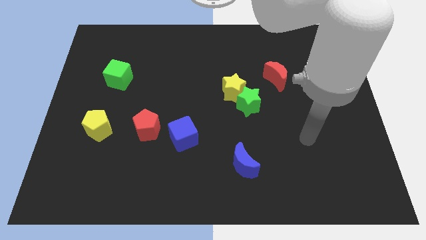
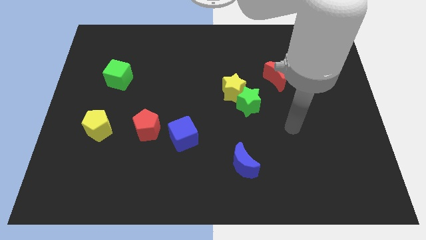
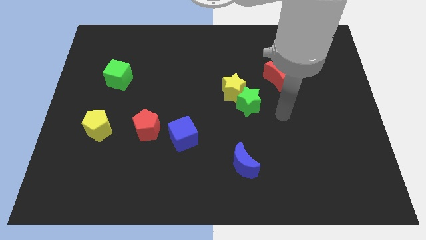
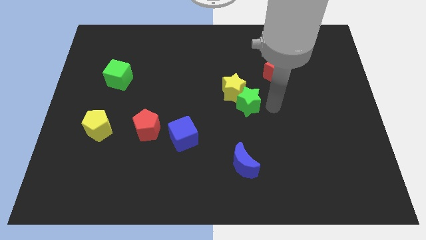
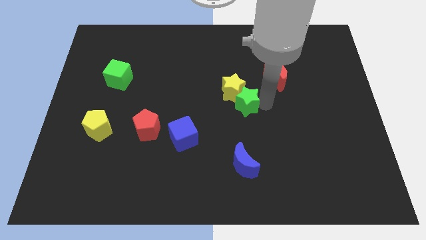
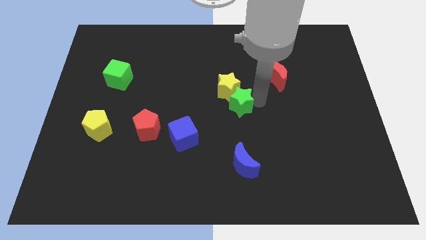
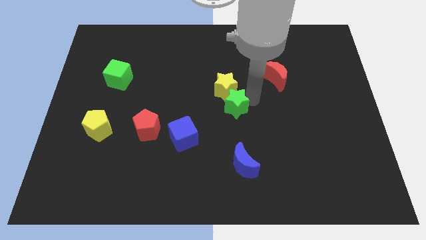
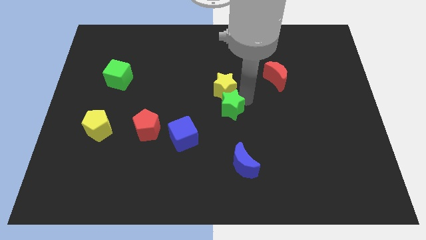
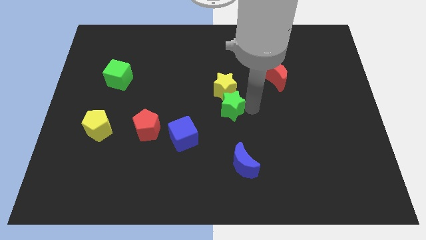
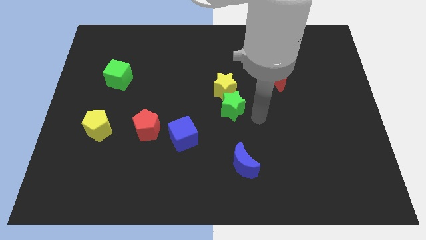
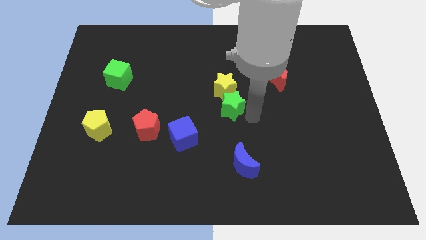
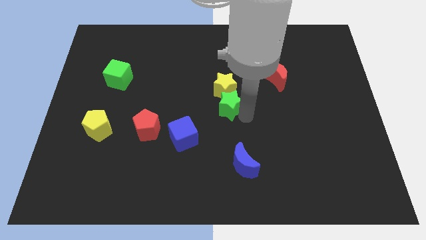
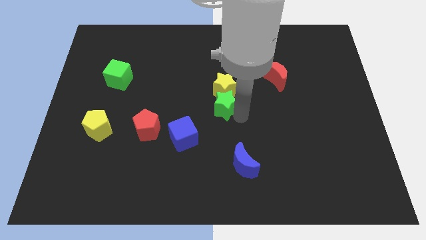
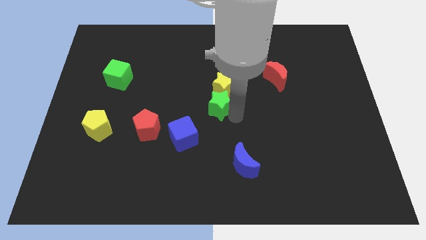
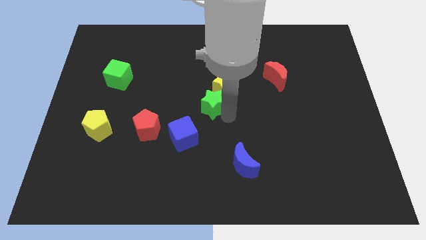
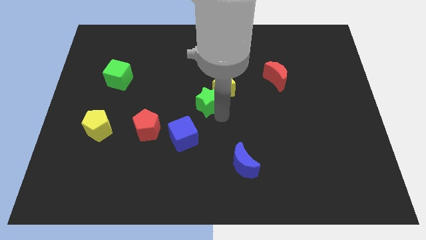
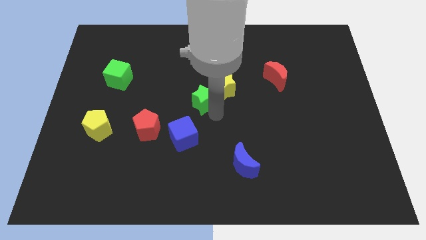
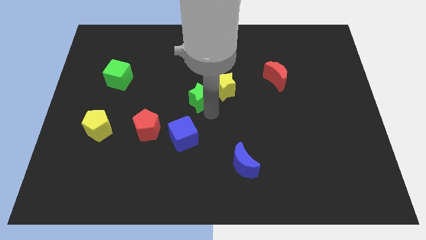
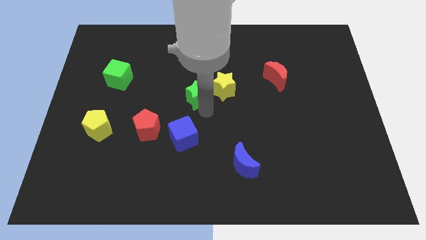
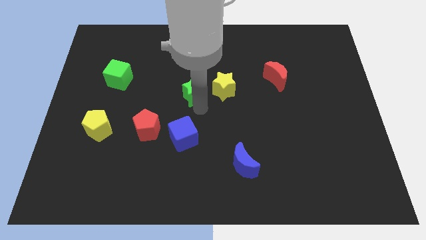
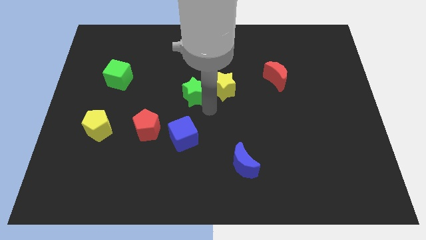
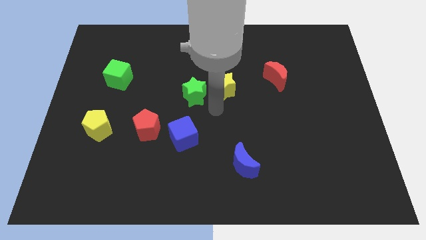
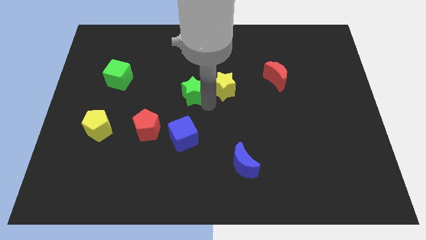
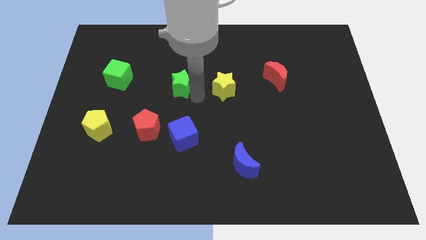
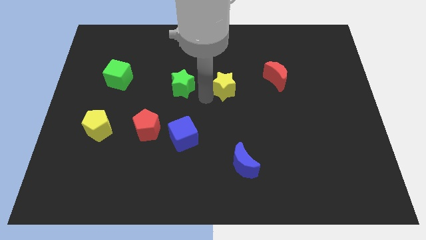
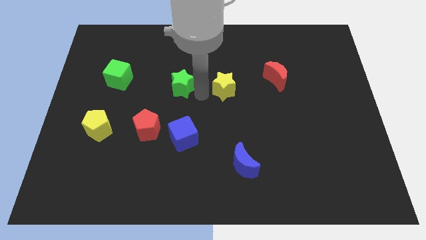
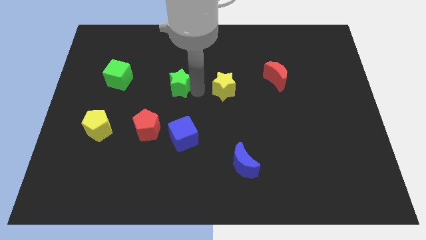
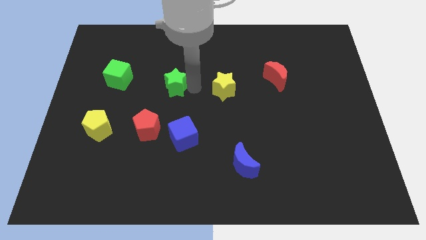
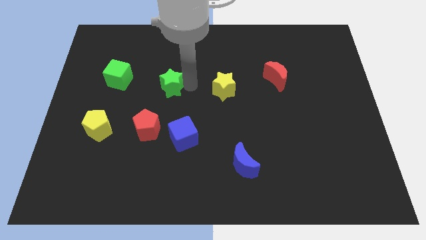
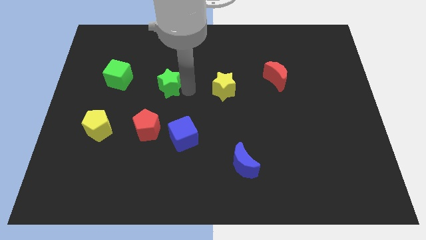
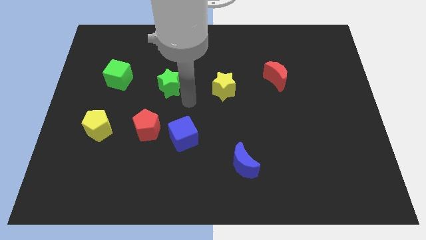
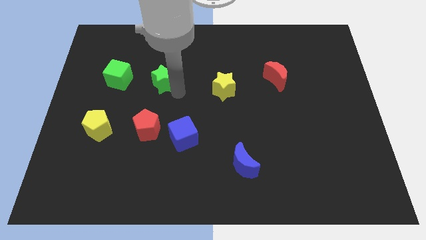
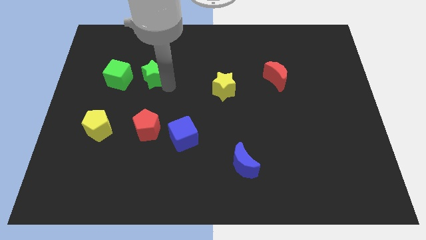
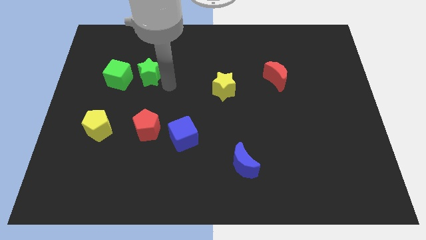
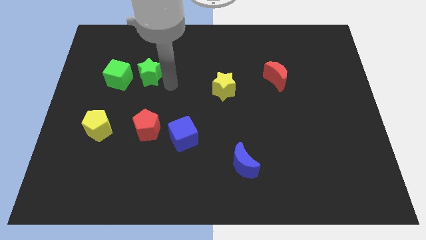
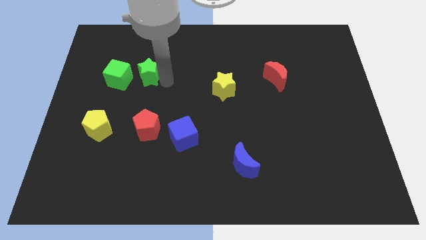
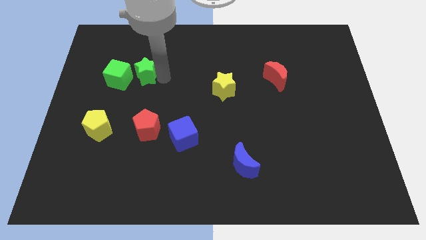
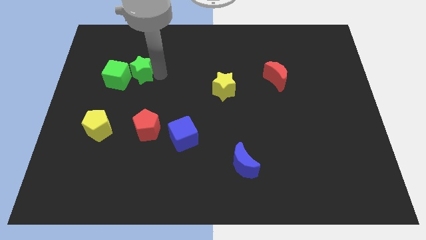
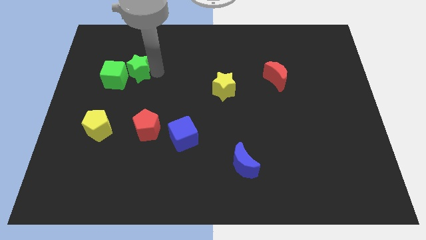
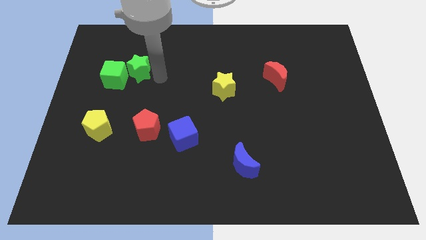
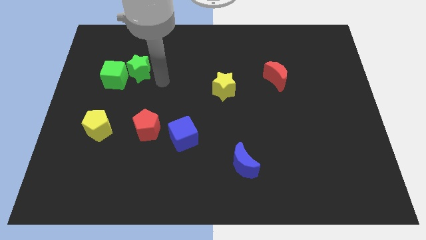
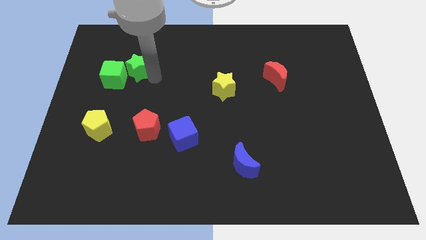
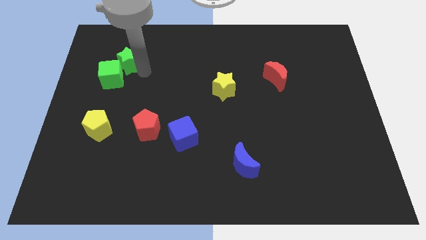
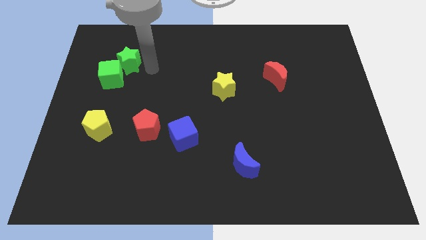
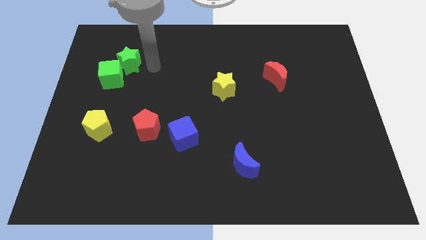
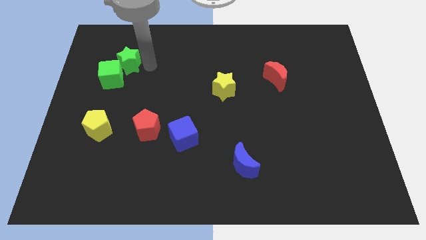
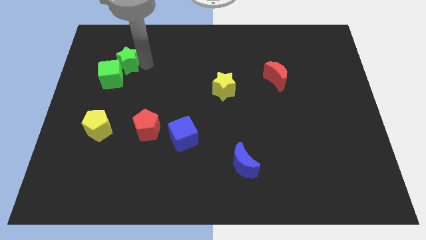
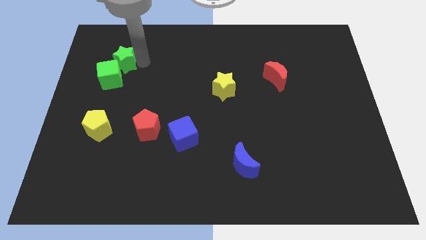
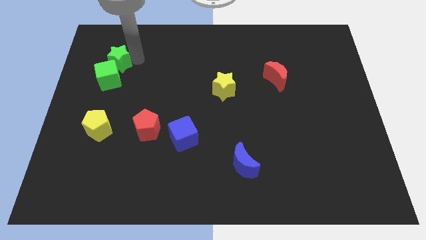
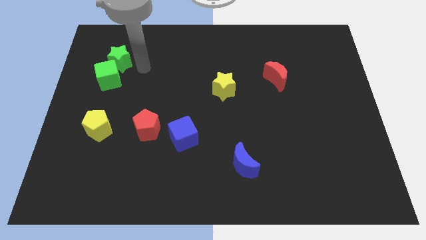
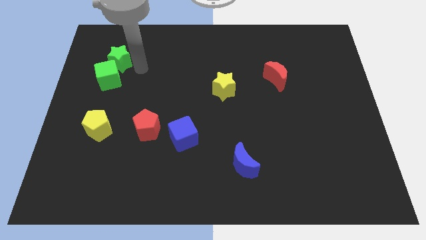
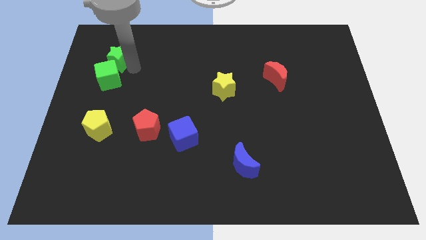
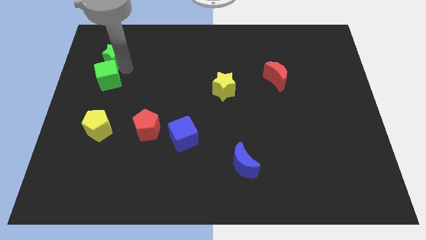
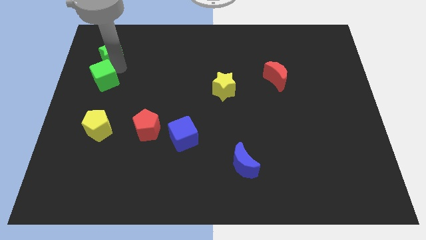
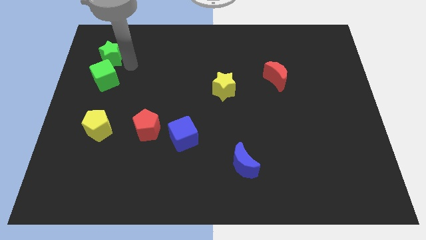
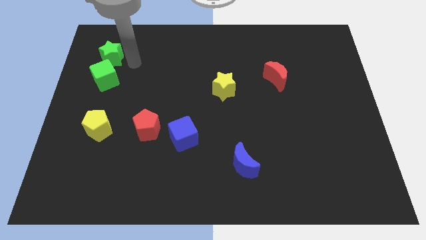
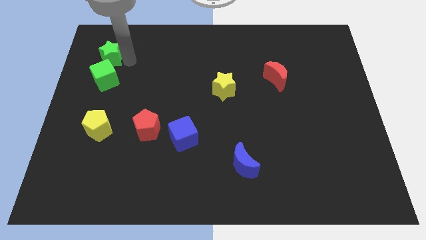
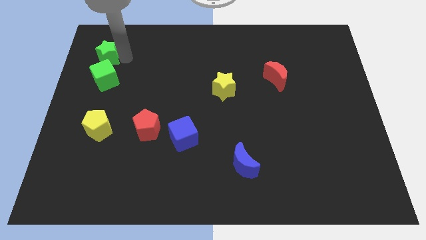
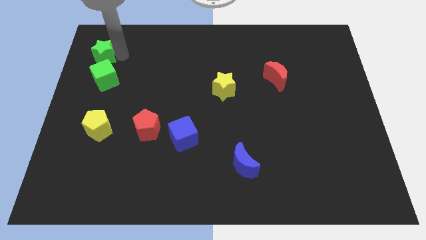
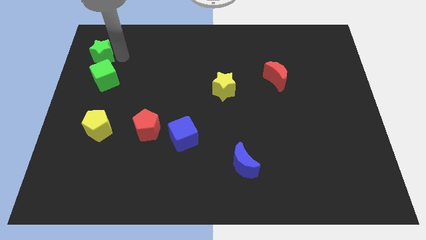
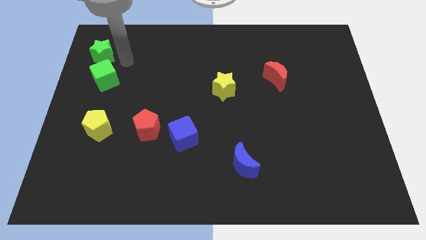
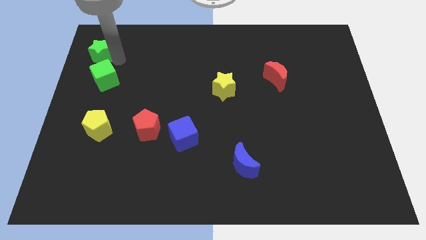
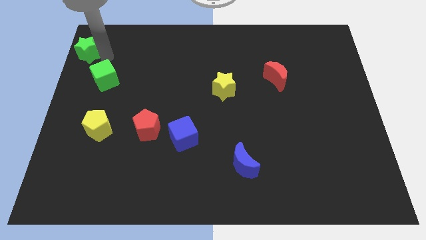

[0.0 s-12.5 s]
slide the green star to the top left

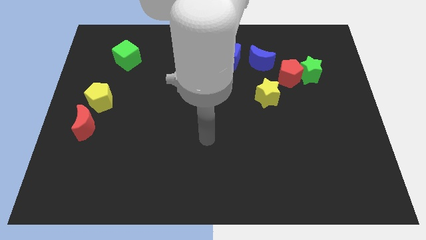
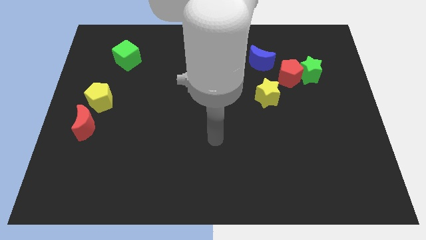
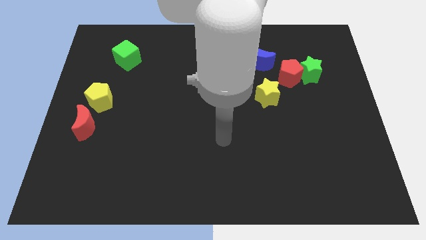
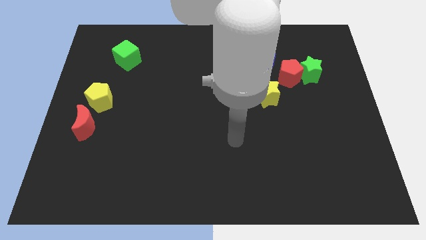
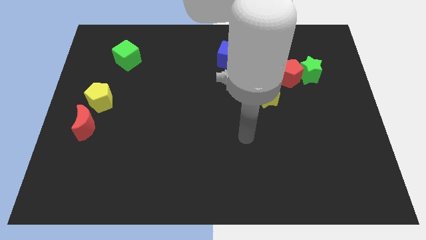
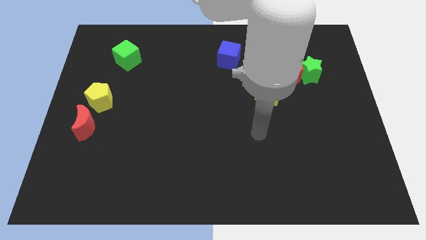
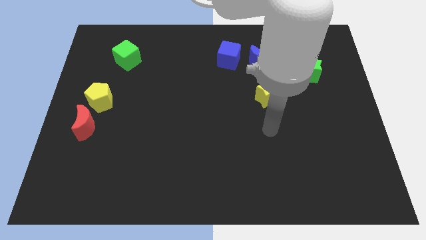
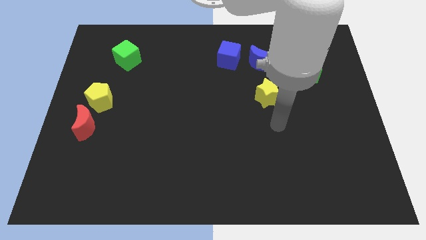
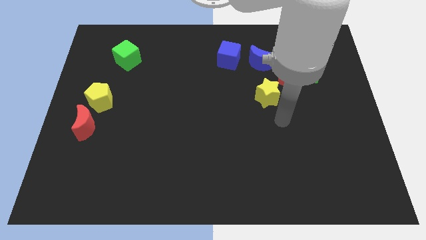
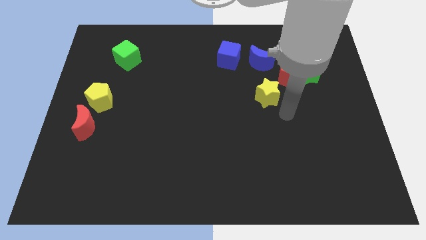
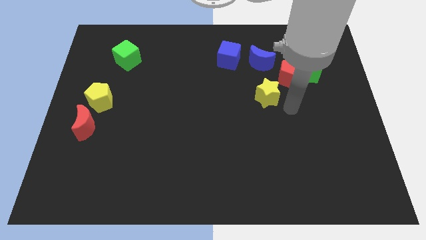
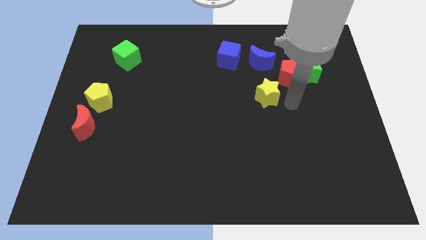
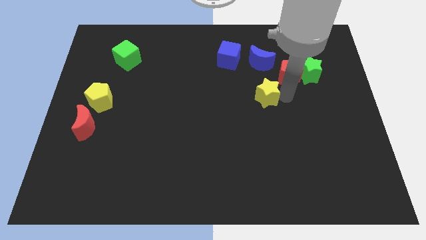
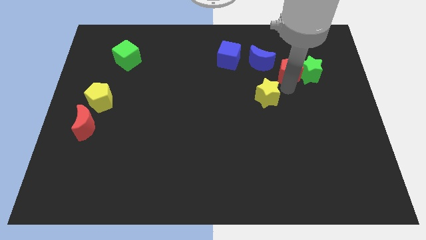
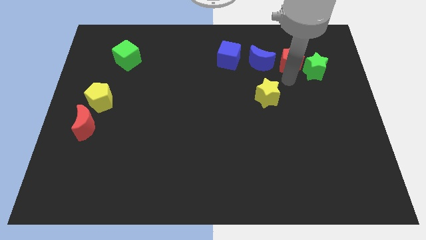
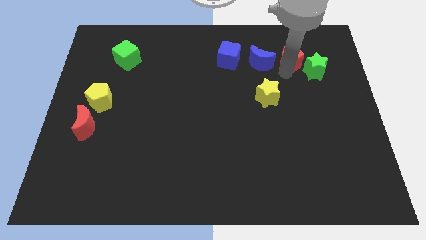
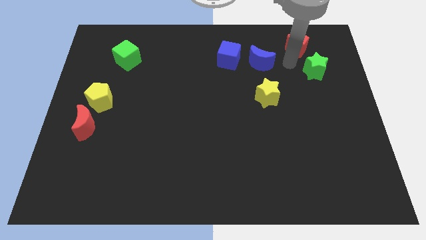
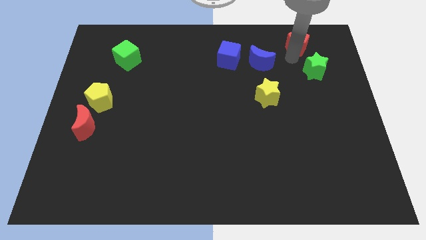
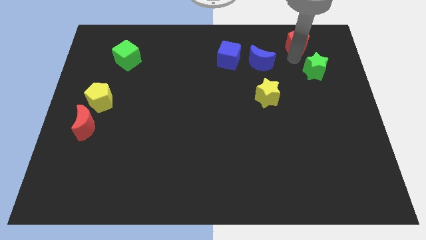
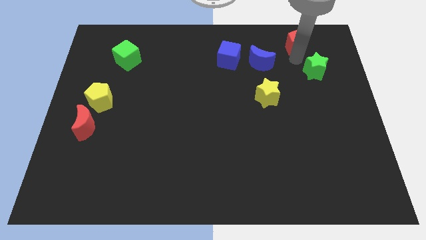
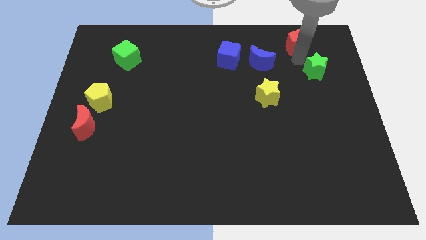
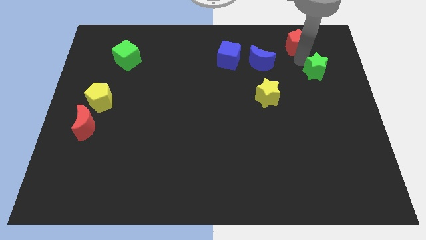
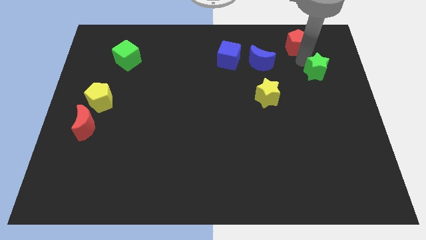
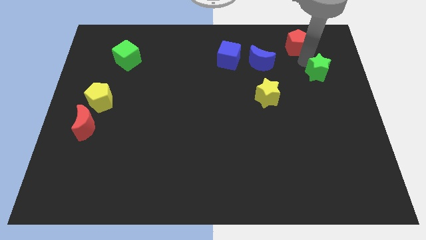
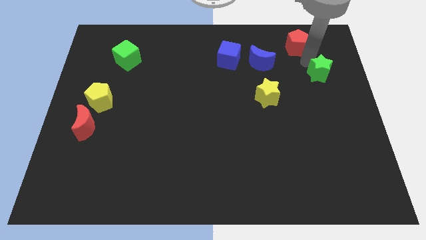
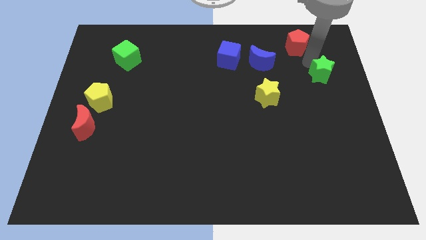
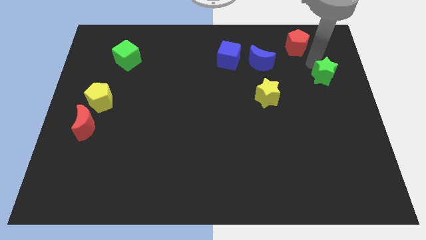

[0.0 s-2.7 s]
move the green star to the right side of the board
